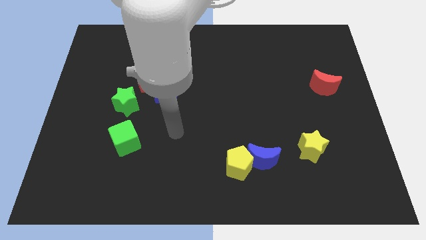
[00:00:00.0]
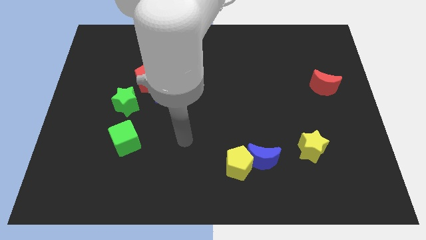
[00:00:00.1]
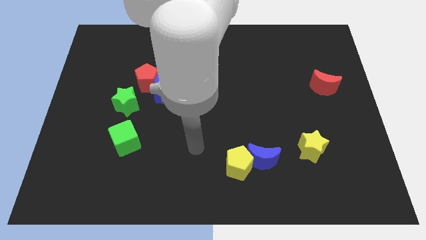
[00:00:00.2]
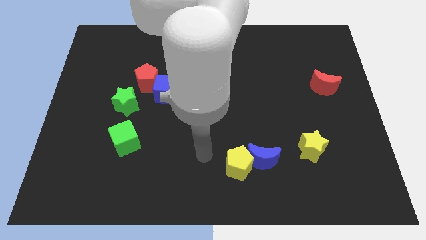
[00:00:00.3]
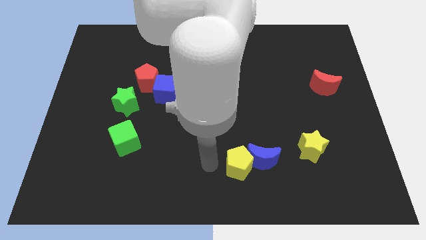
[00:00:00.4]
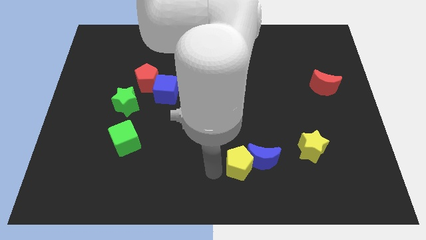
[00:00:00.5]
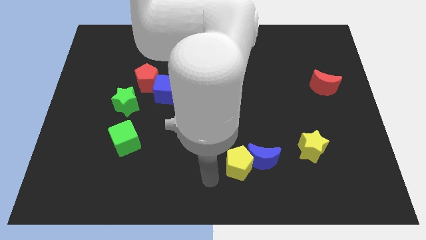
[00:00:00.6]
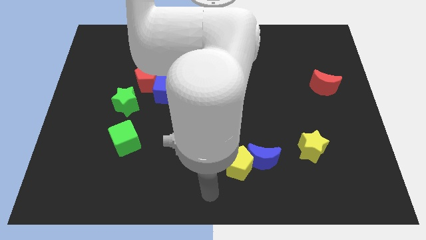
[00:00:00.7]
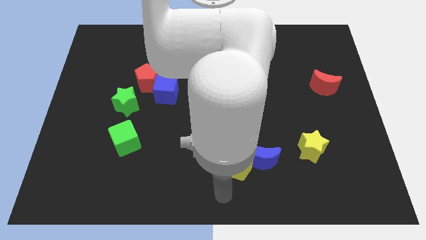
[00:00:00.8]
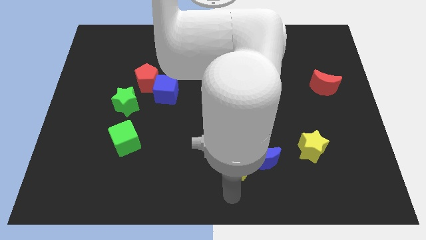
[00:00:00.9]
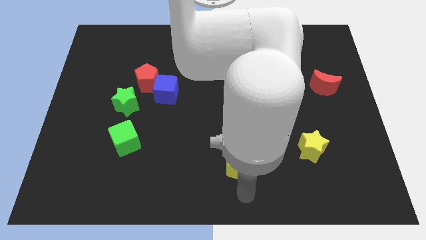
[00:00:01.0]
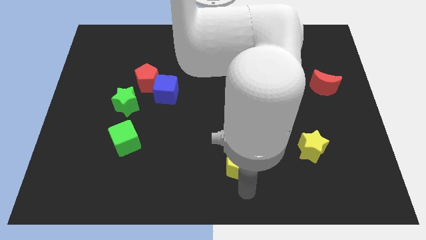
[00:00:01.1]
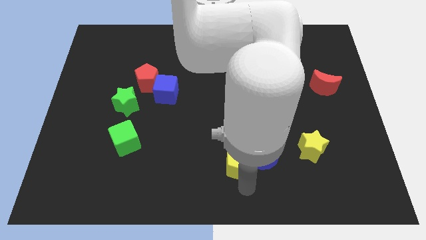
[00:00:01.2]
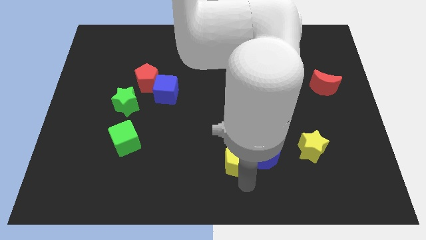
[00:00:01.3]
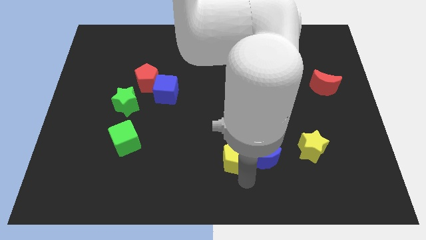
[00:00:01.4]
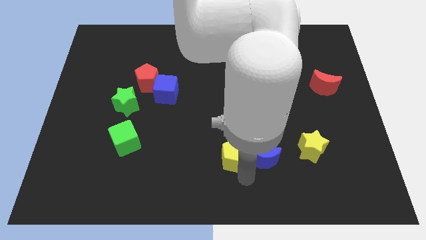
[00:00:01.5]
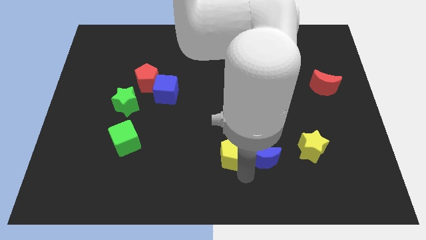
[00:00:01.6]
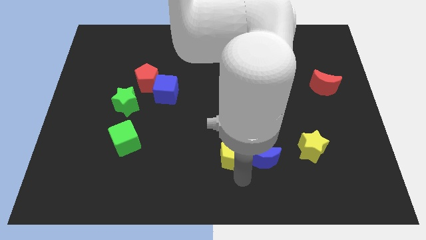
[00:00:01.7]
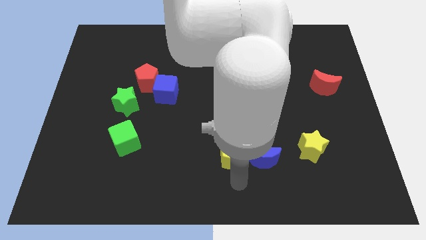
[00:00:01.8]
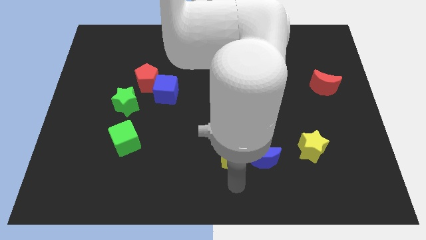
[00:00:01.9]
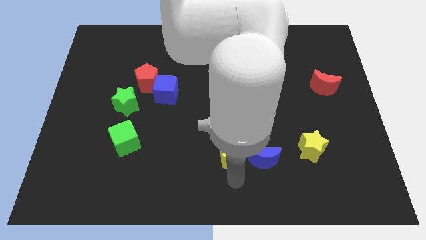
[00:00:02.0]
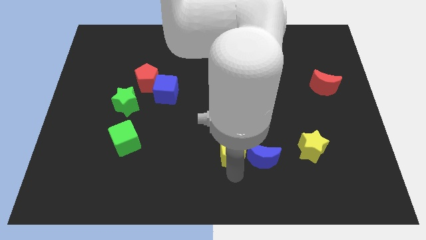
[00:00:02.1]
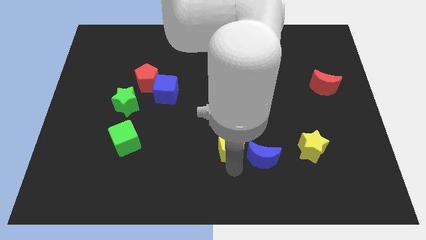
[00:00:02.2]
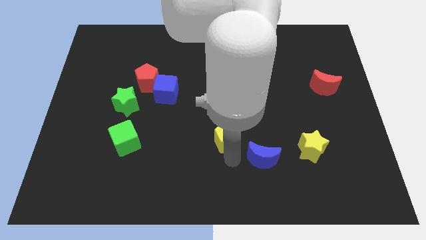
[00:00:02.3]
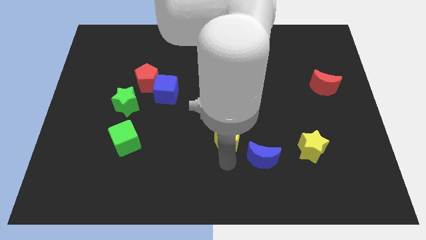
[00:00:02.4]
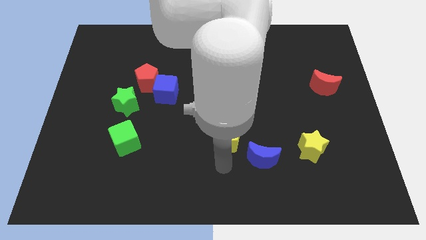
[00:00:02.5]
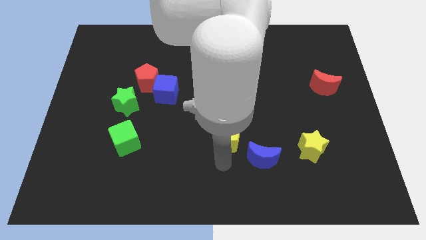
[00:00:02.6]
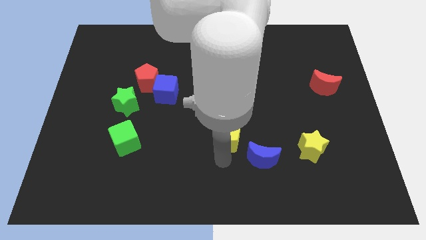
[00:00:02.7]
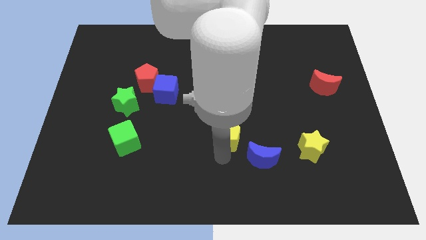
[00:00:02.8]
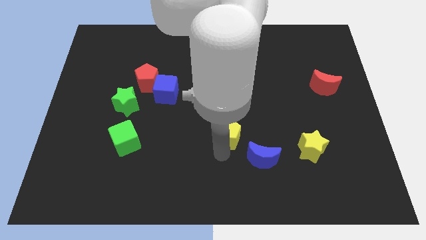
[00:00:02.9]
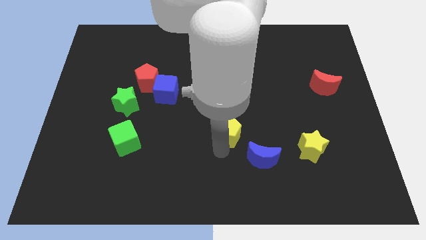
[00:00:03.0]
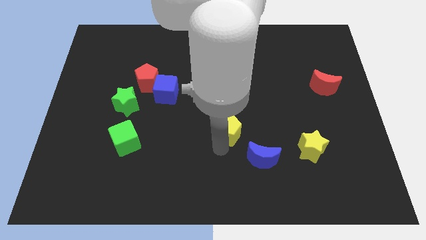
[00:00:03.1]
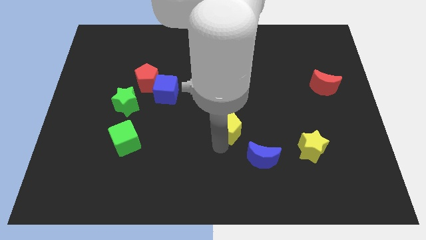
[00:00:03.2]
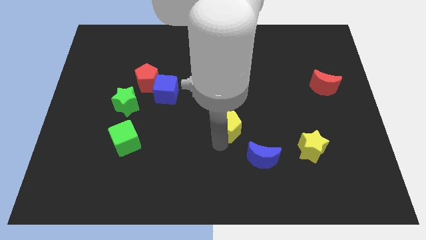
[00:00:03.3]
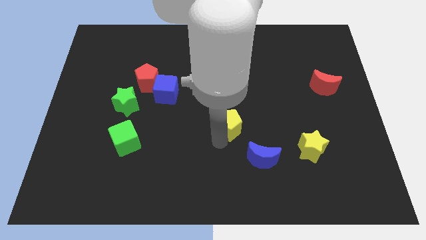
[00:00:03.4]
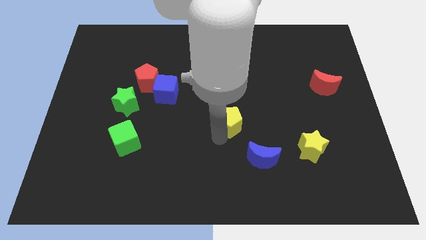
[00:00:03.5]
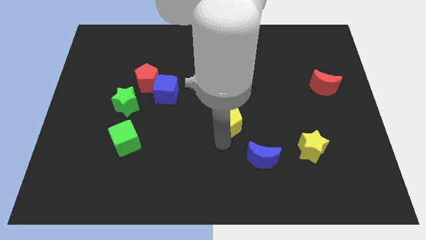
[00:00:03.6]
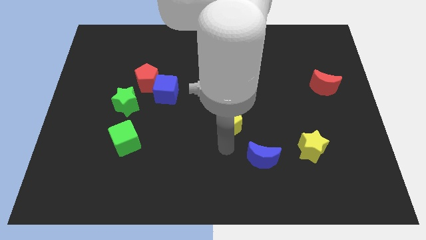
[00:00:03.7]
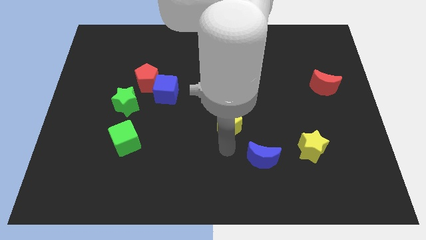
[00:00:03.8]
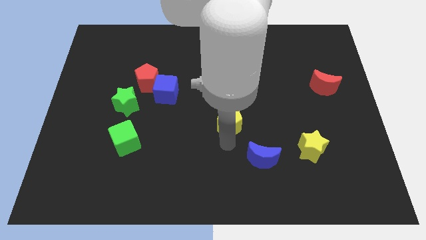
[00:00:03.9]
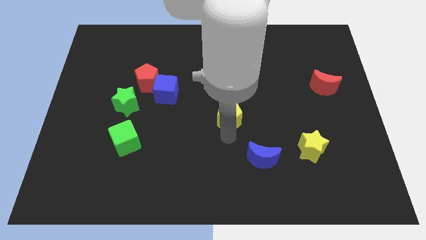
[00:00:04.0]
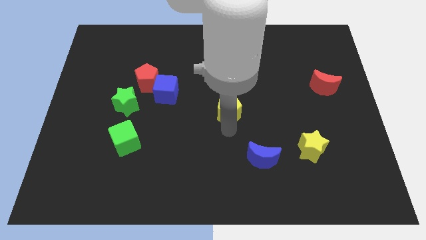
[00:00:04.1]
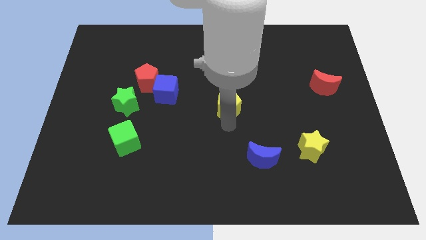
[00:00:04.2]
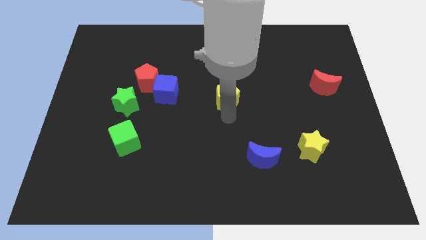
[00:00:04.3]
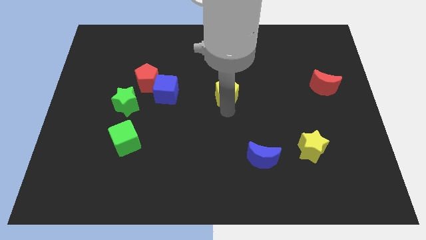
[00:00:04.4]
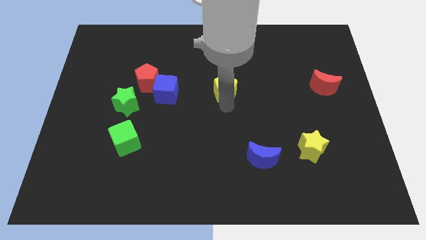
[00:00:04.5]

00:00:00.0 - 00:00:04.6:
push the yellow pentagon up

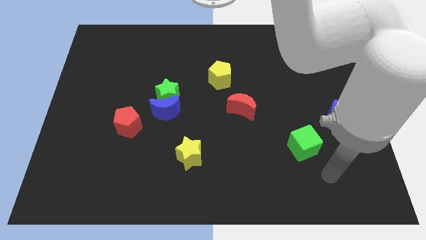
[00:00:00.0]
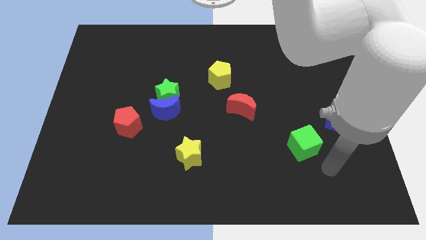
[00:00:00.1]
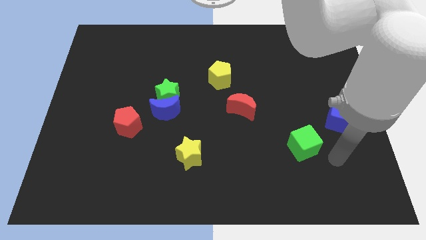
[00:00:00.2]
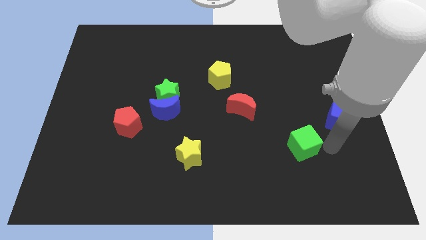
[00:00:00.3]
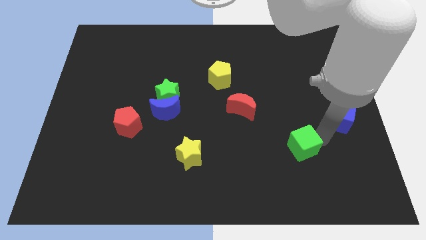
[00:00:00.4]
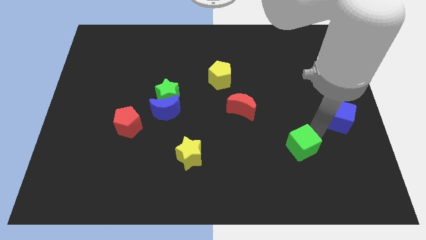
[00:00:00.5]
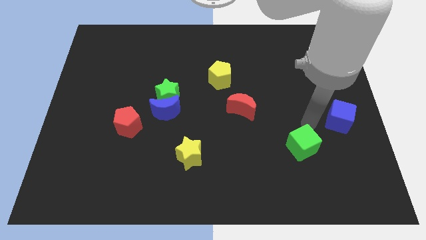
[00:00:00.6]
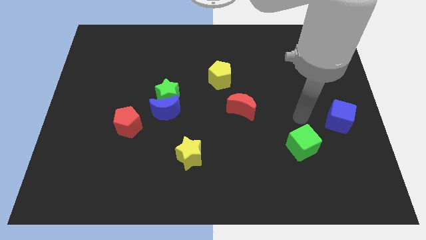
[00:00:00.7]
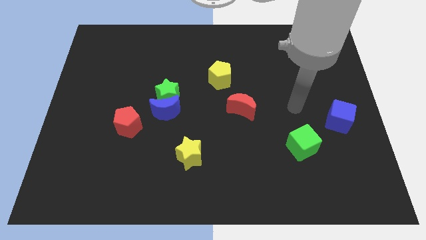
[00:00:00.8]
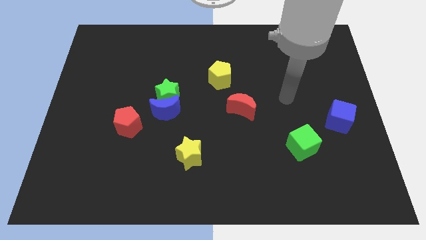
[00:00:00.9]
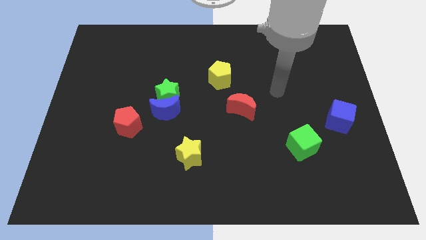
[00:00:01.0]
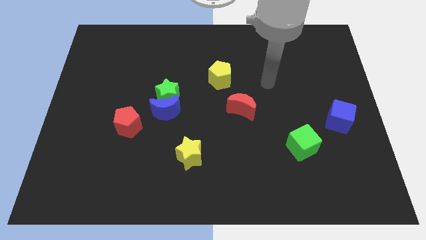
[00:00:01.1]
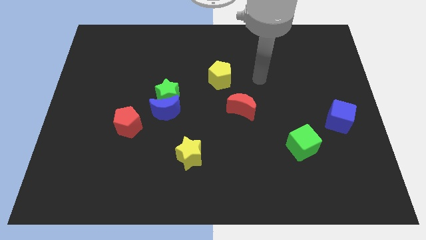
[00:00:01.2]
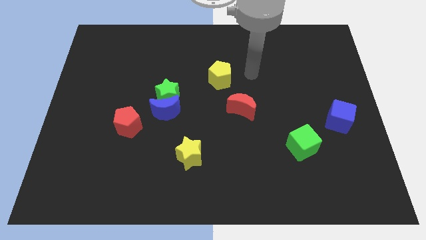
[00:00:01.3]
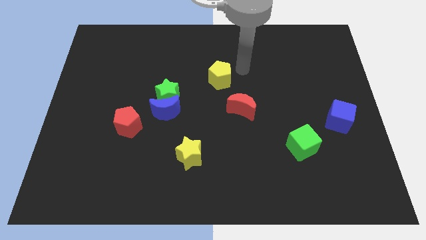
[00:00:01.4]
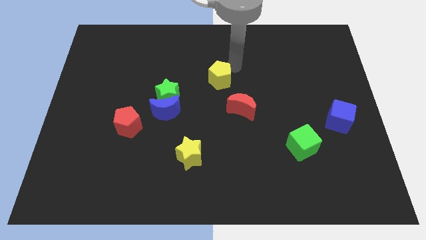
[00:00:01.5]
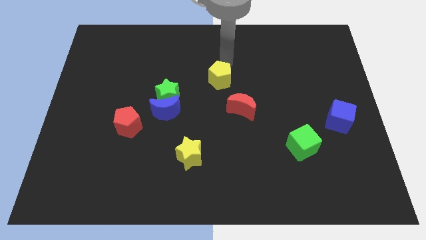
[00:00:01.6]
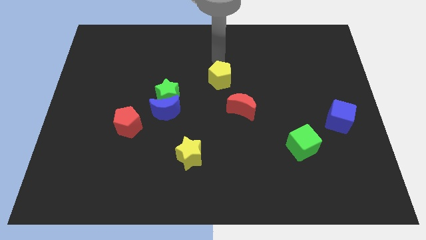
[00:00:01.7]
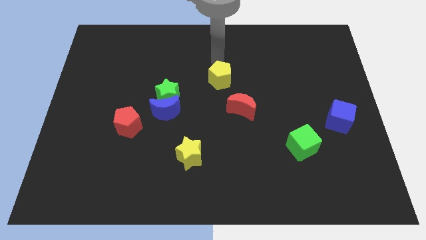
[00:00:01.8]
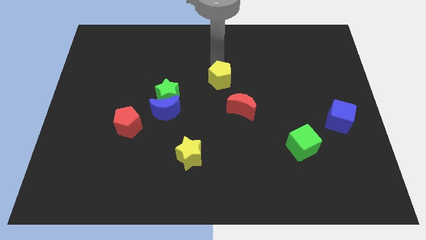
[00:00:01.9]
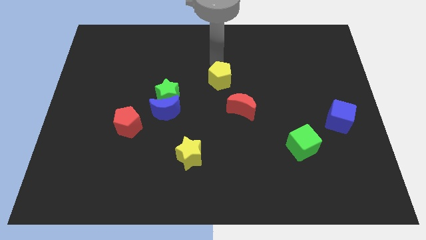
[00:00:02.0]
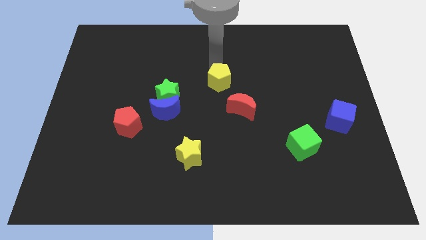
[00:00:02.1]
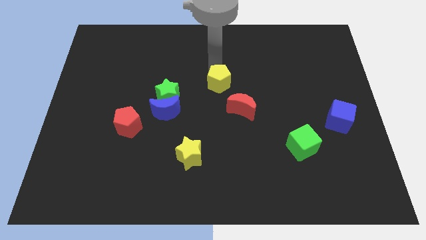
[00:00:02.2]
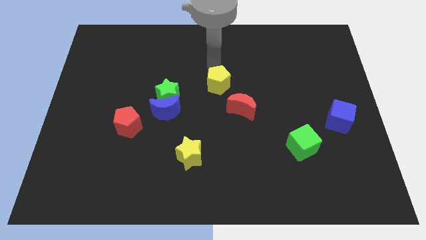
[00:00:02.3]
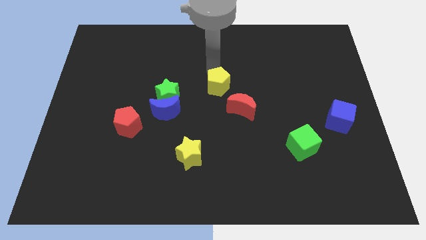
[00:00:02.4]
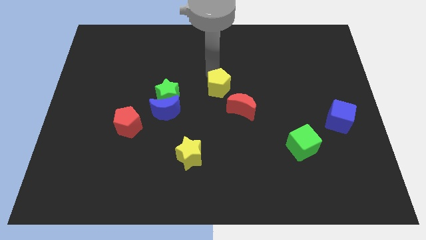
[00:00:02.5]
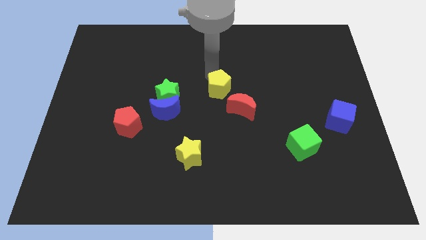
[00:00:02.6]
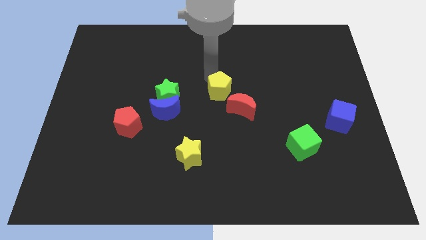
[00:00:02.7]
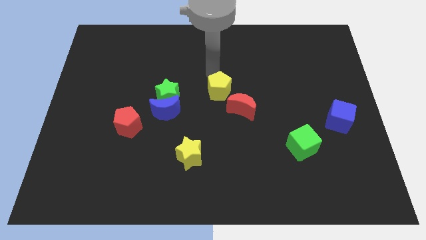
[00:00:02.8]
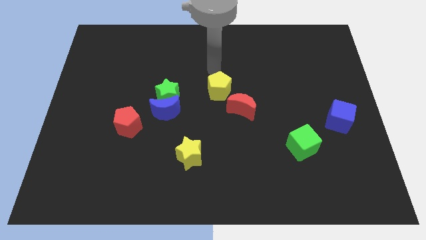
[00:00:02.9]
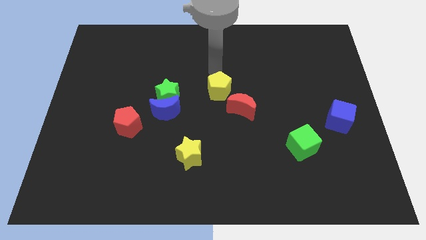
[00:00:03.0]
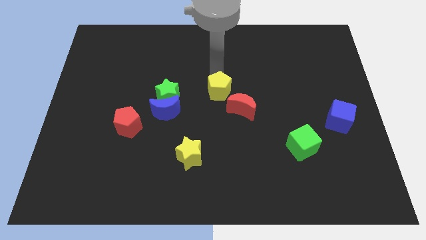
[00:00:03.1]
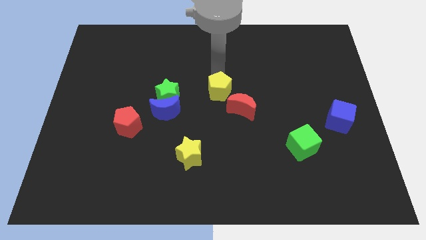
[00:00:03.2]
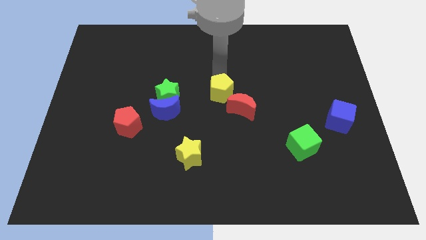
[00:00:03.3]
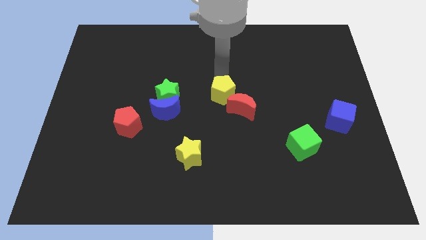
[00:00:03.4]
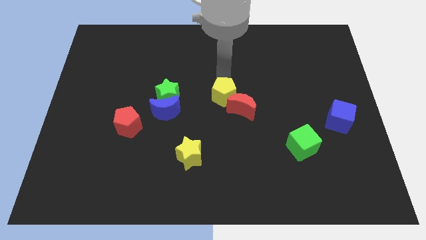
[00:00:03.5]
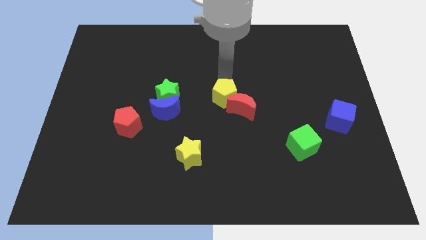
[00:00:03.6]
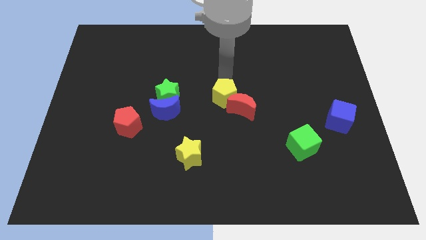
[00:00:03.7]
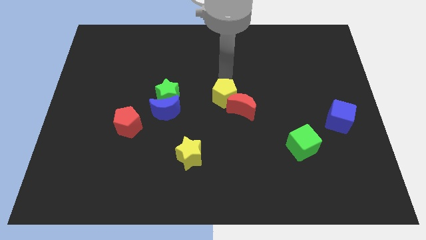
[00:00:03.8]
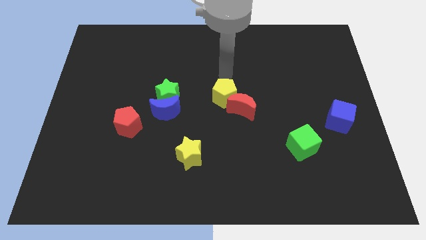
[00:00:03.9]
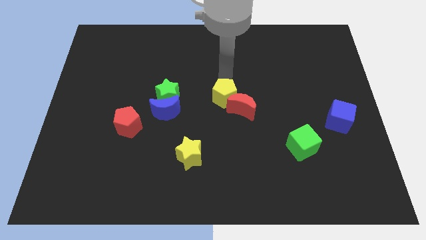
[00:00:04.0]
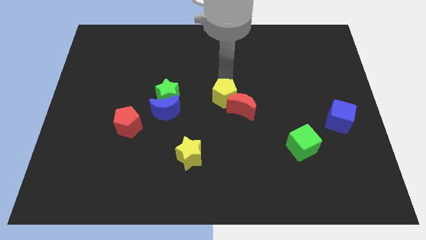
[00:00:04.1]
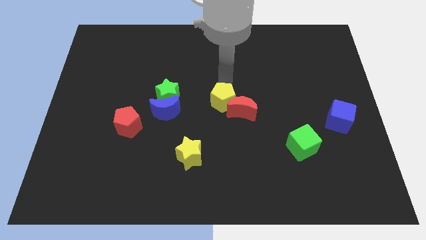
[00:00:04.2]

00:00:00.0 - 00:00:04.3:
slightly push the yellow pentagon downwards
